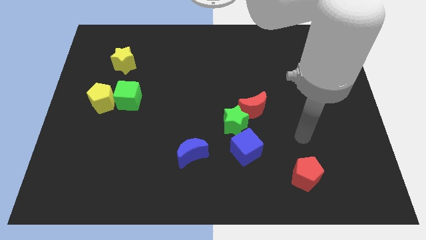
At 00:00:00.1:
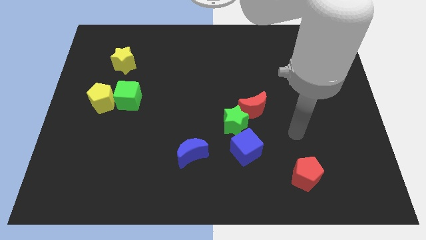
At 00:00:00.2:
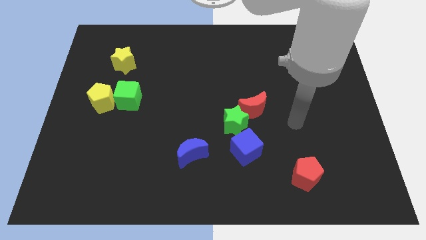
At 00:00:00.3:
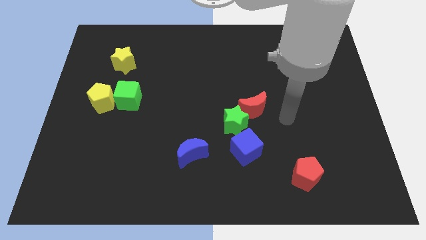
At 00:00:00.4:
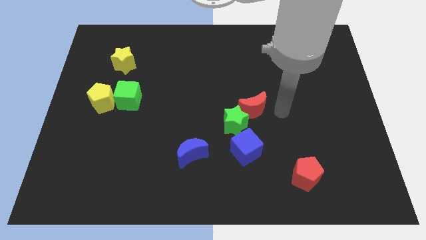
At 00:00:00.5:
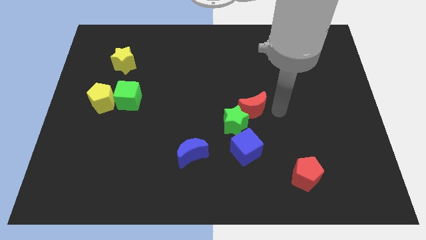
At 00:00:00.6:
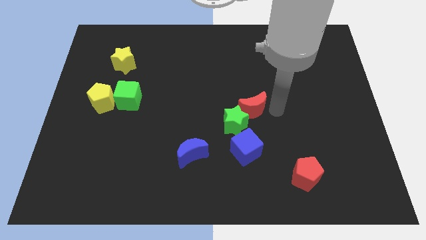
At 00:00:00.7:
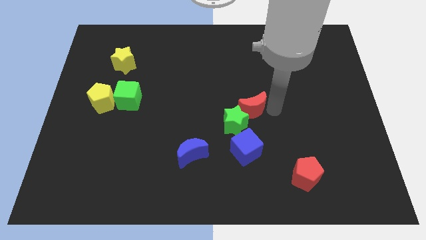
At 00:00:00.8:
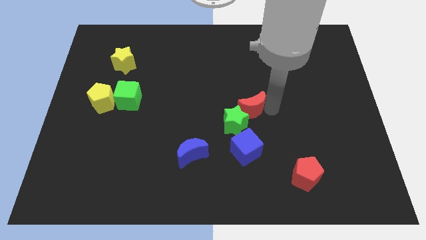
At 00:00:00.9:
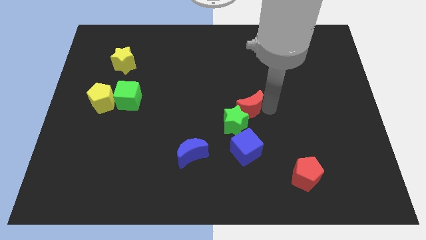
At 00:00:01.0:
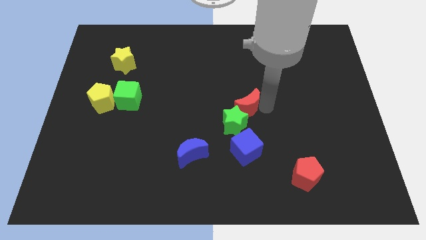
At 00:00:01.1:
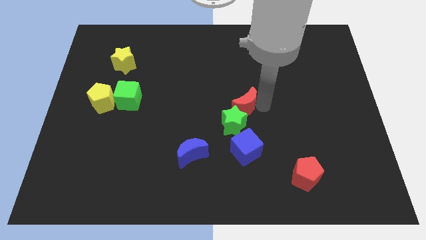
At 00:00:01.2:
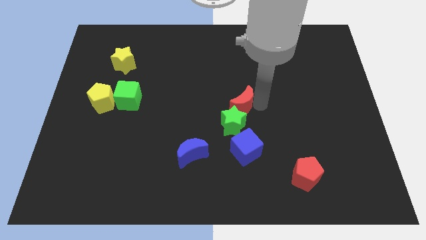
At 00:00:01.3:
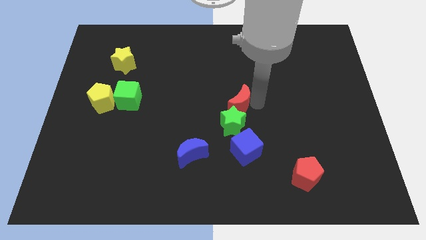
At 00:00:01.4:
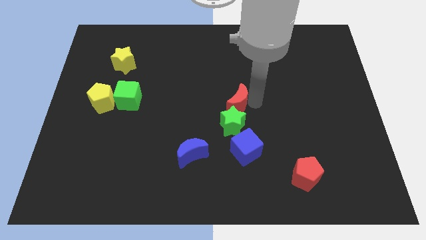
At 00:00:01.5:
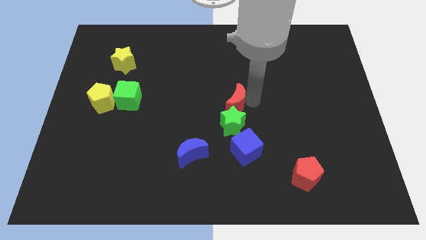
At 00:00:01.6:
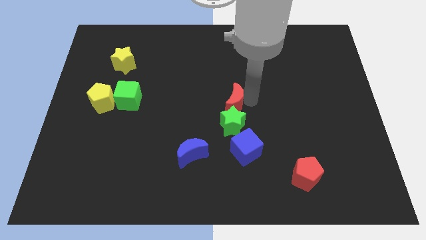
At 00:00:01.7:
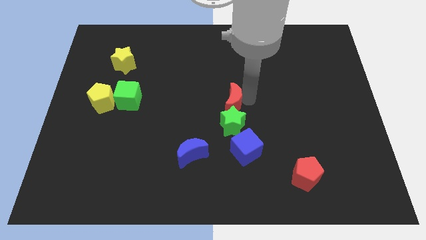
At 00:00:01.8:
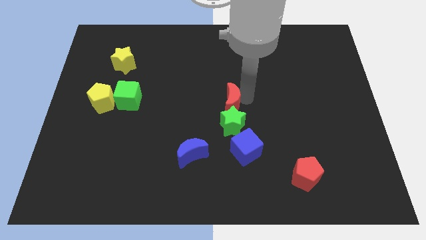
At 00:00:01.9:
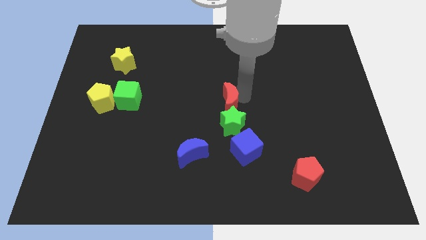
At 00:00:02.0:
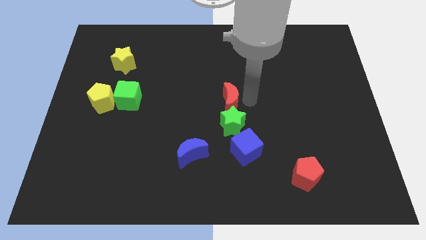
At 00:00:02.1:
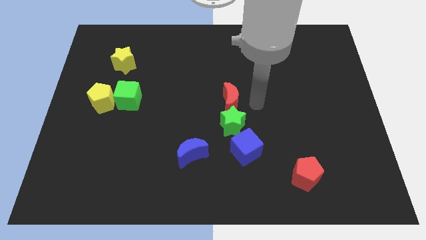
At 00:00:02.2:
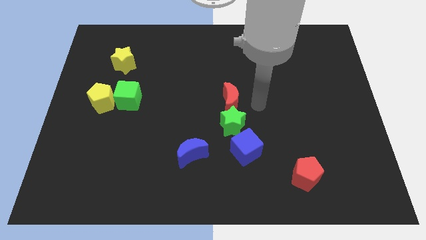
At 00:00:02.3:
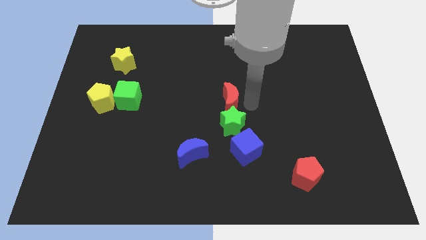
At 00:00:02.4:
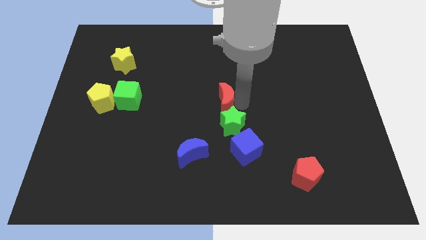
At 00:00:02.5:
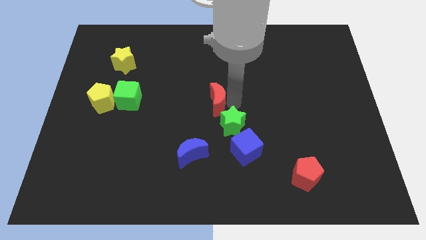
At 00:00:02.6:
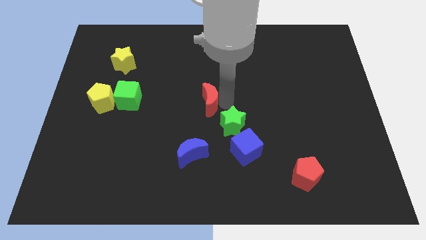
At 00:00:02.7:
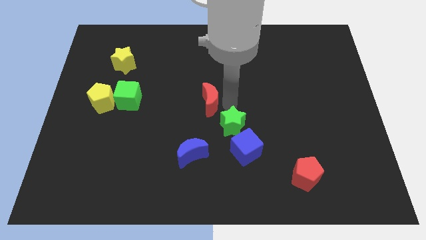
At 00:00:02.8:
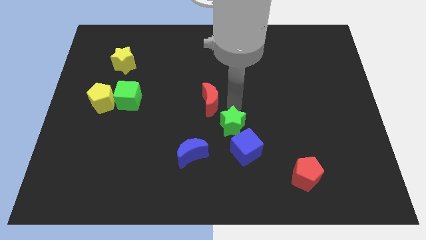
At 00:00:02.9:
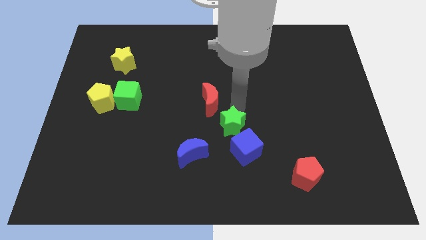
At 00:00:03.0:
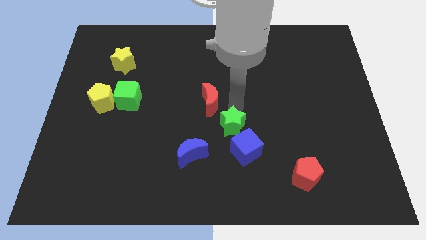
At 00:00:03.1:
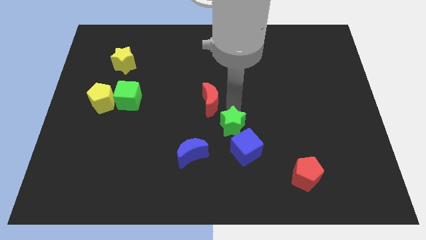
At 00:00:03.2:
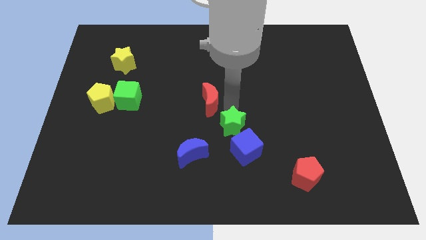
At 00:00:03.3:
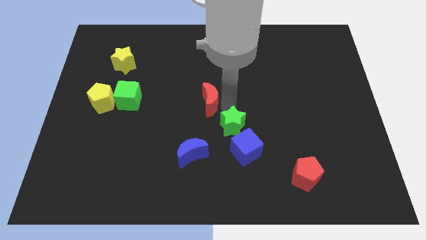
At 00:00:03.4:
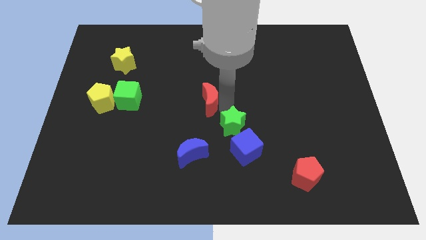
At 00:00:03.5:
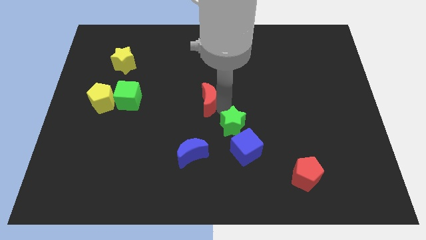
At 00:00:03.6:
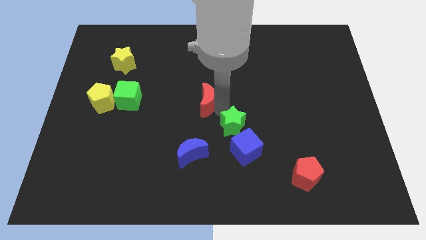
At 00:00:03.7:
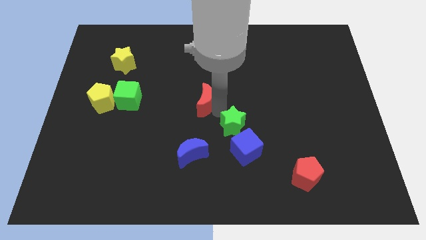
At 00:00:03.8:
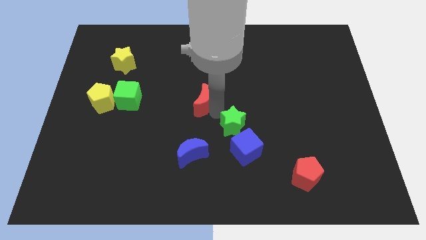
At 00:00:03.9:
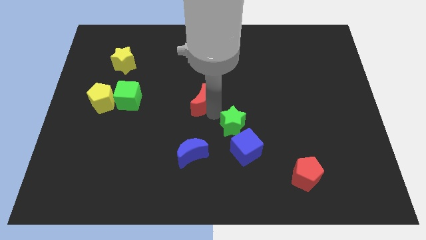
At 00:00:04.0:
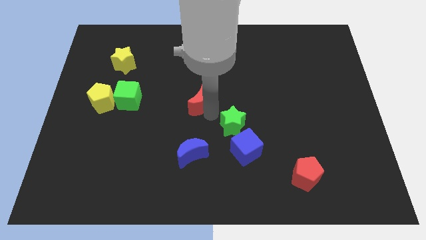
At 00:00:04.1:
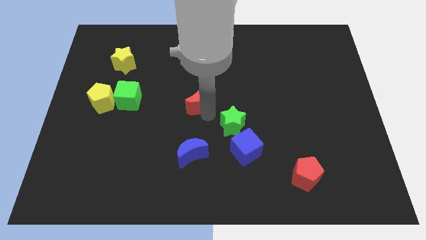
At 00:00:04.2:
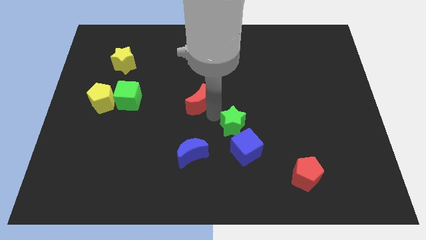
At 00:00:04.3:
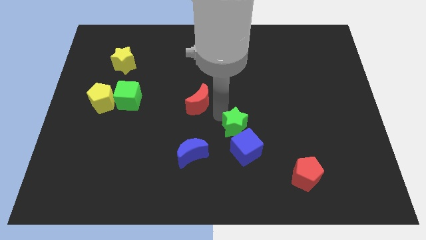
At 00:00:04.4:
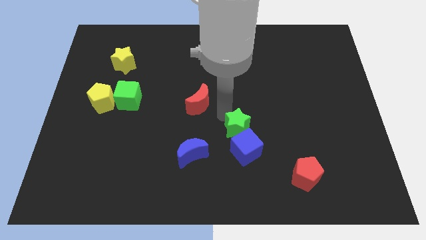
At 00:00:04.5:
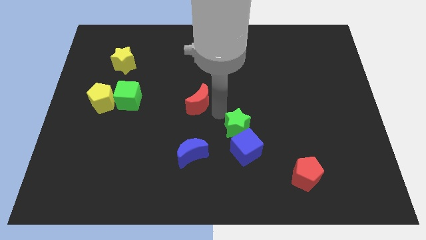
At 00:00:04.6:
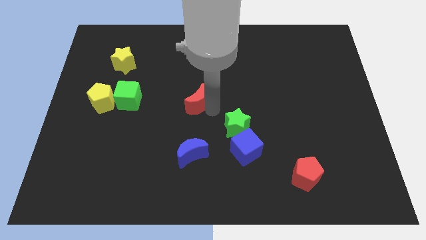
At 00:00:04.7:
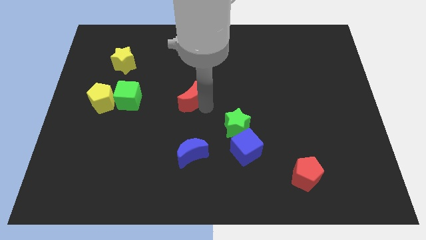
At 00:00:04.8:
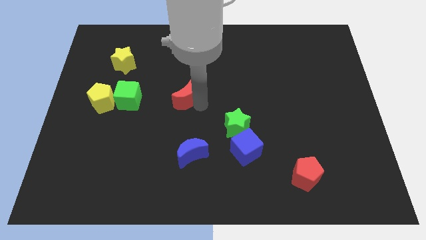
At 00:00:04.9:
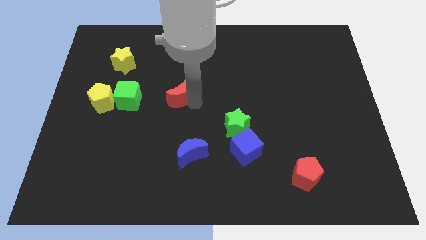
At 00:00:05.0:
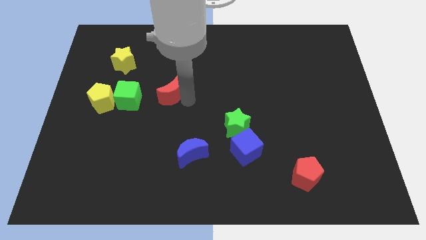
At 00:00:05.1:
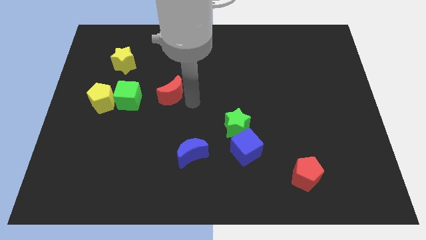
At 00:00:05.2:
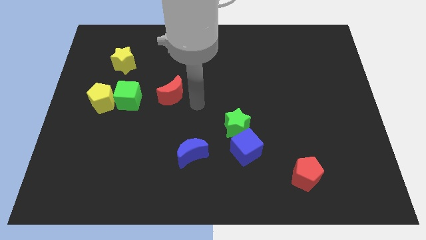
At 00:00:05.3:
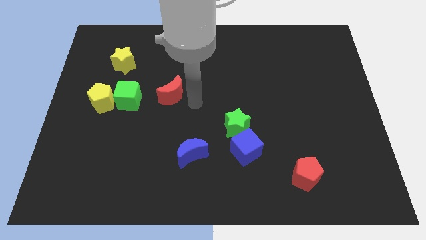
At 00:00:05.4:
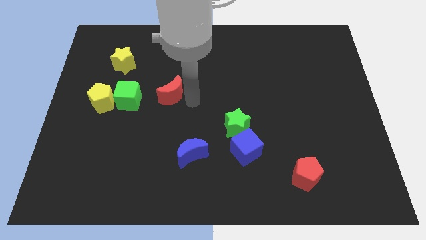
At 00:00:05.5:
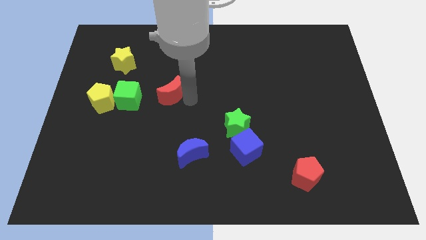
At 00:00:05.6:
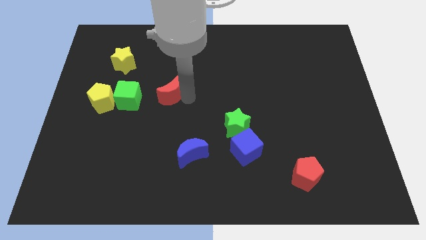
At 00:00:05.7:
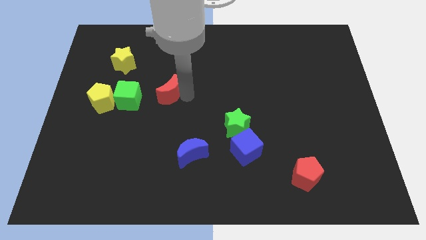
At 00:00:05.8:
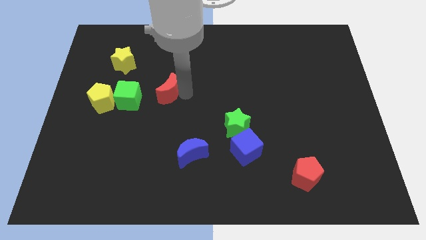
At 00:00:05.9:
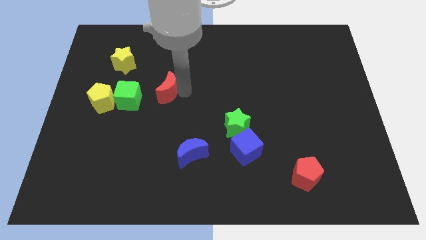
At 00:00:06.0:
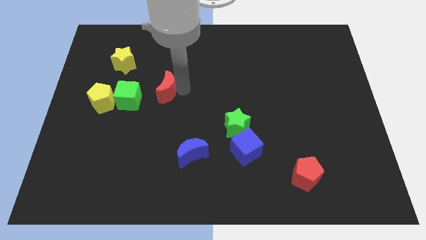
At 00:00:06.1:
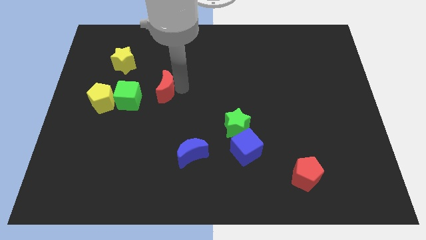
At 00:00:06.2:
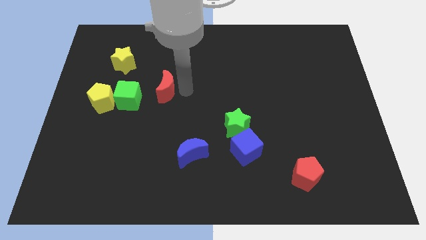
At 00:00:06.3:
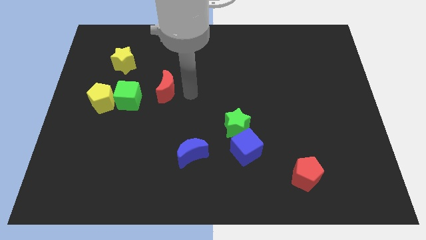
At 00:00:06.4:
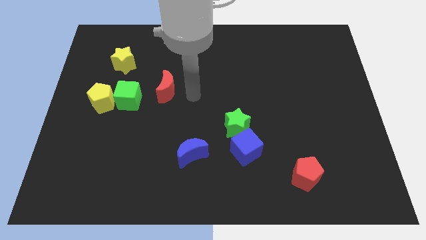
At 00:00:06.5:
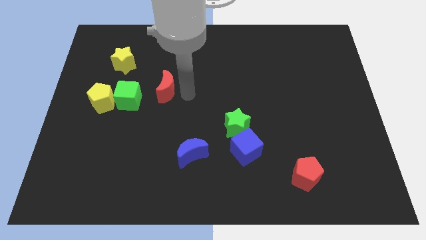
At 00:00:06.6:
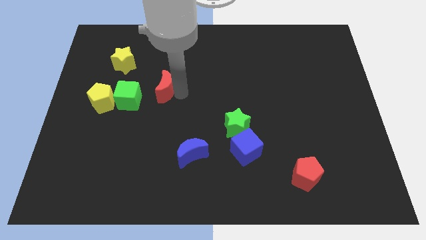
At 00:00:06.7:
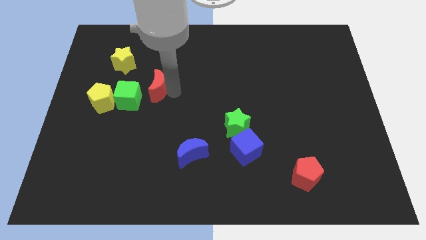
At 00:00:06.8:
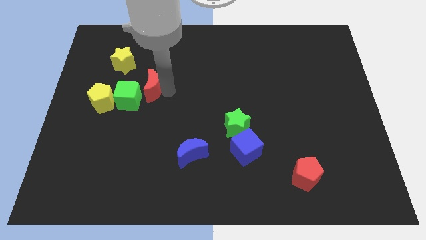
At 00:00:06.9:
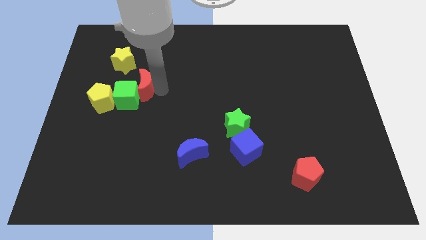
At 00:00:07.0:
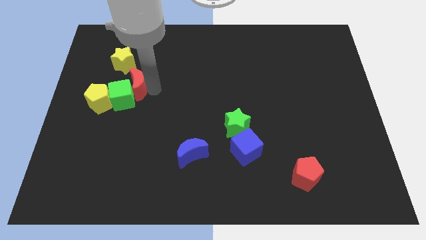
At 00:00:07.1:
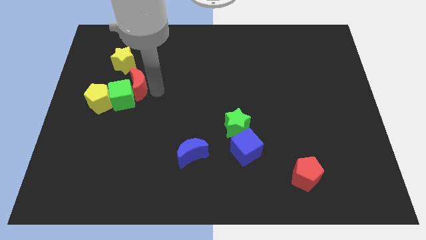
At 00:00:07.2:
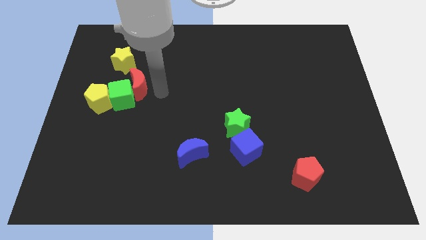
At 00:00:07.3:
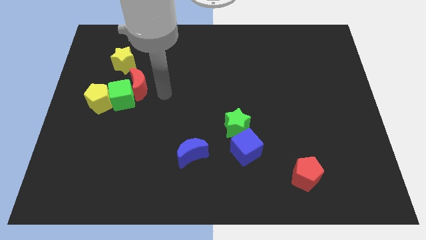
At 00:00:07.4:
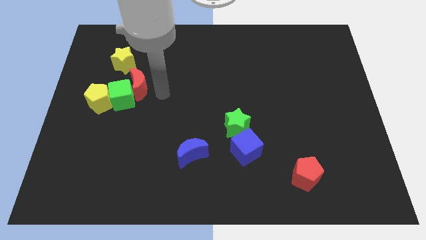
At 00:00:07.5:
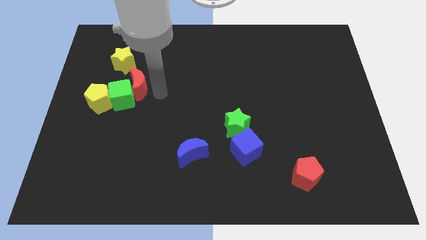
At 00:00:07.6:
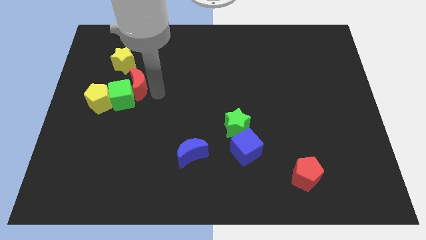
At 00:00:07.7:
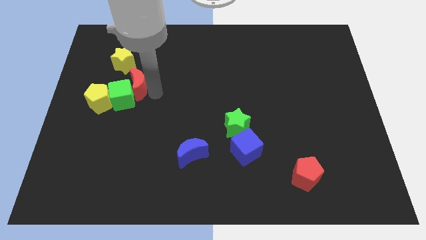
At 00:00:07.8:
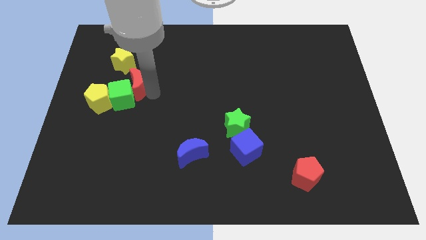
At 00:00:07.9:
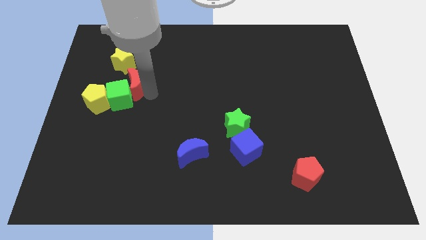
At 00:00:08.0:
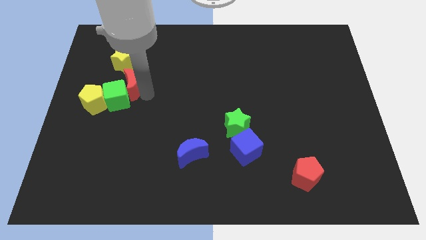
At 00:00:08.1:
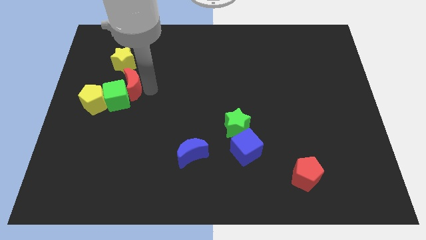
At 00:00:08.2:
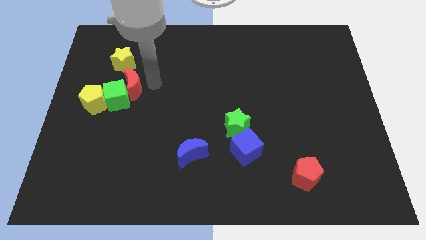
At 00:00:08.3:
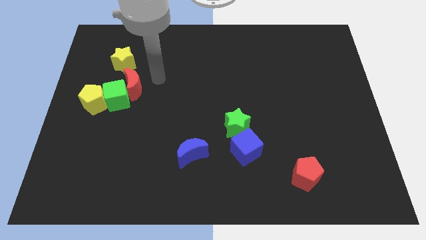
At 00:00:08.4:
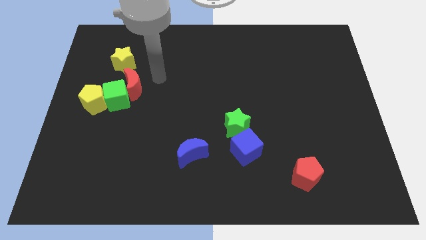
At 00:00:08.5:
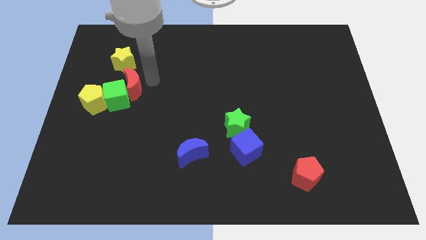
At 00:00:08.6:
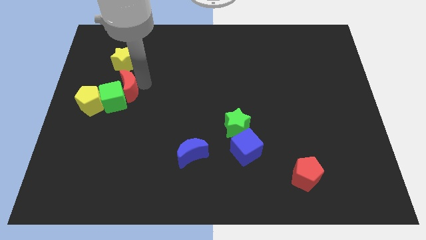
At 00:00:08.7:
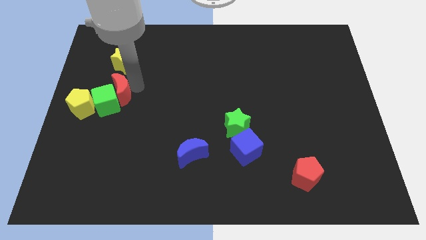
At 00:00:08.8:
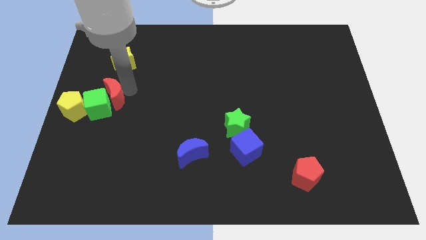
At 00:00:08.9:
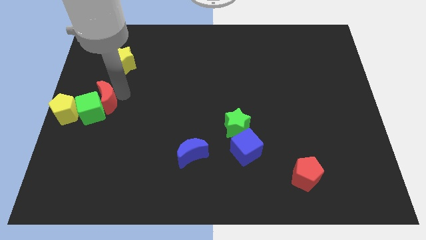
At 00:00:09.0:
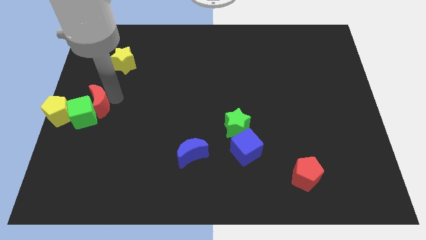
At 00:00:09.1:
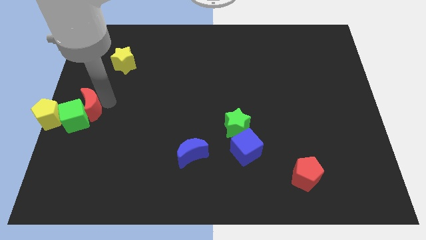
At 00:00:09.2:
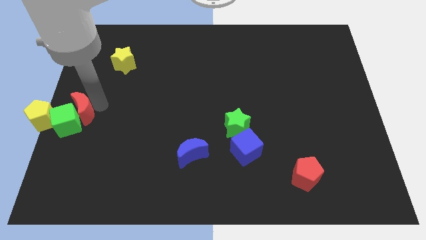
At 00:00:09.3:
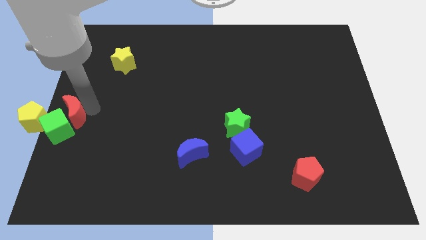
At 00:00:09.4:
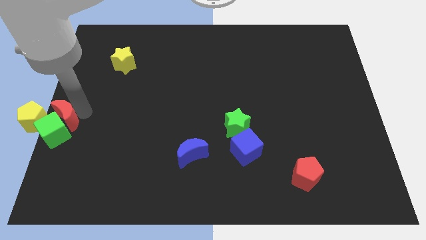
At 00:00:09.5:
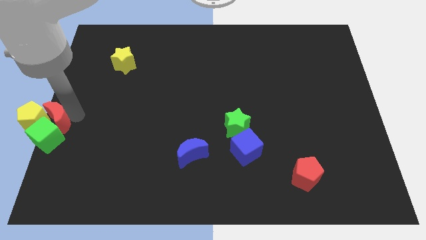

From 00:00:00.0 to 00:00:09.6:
push the red moon to the yellow pentagon
